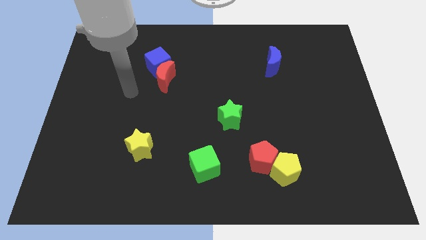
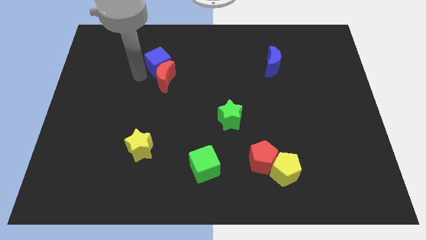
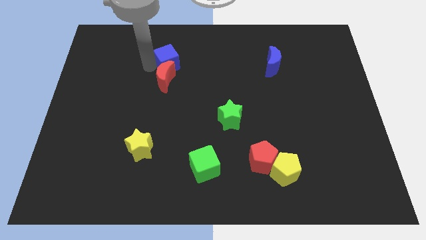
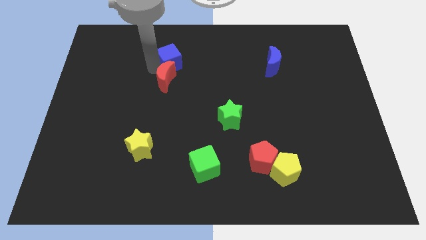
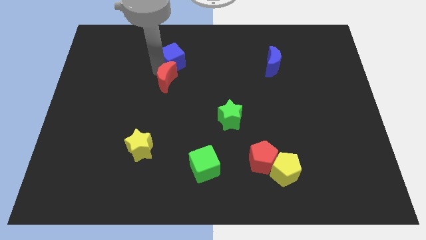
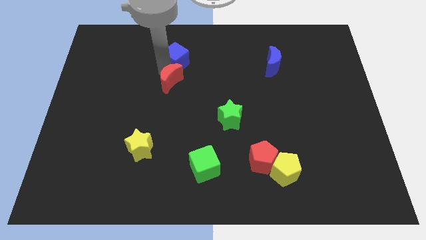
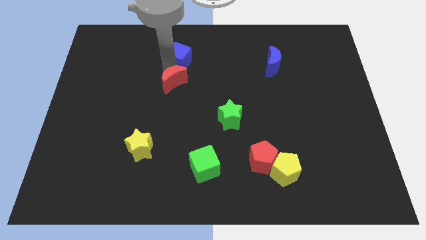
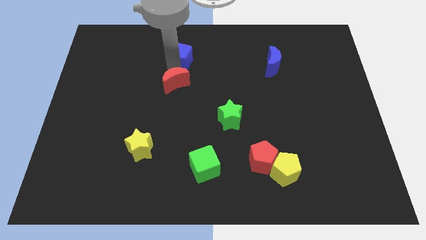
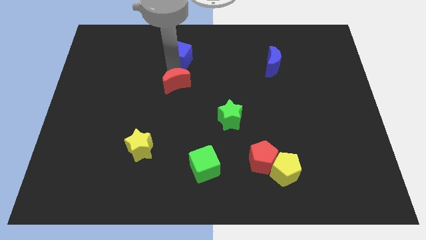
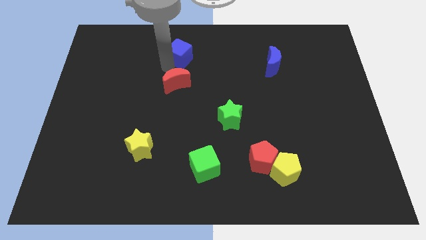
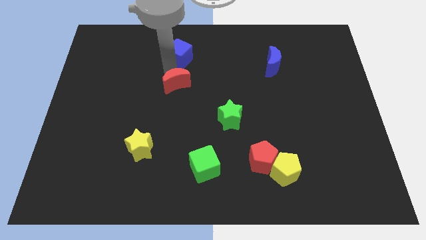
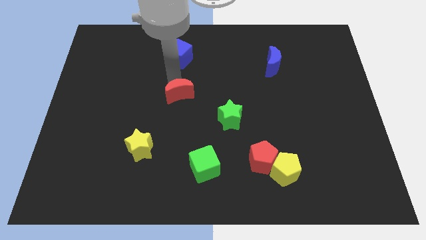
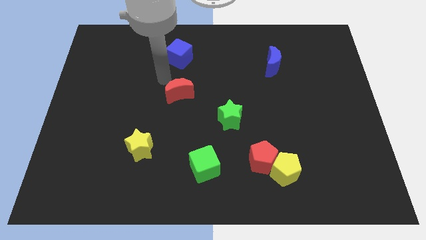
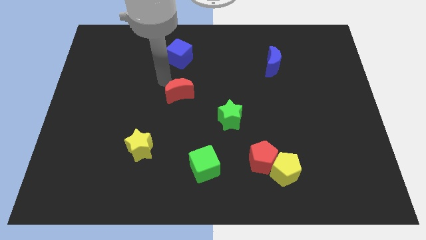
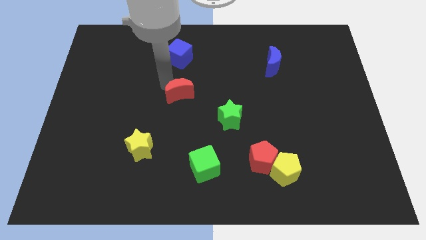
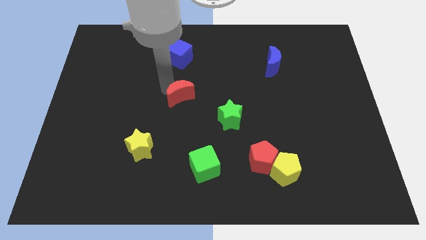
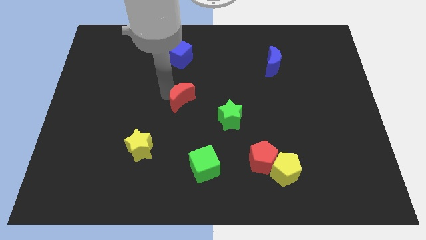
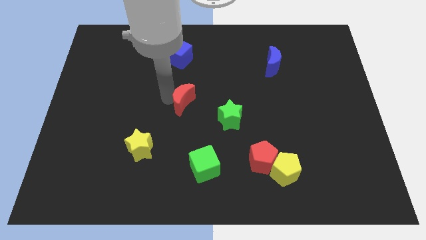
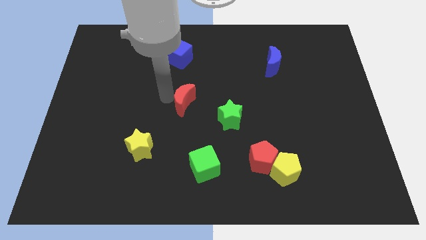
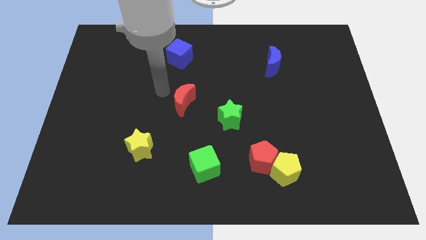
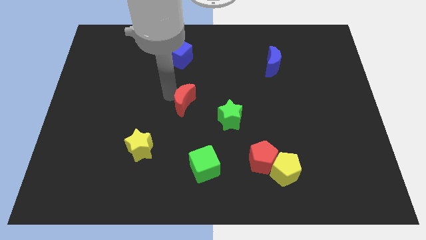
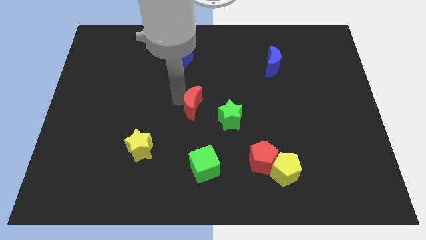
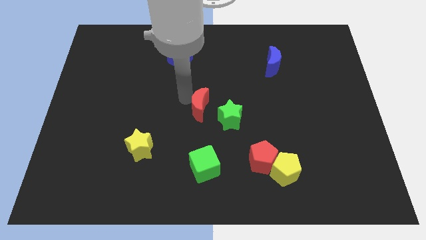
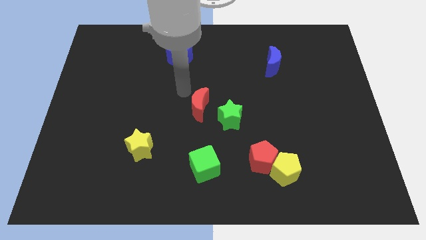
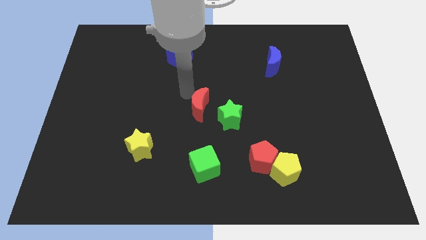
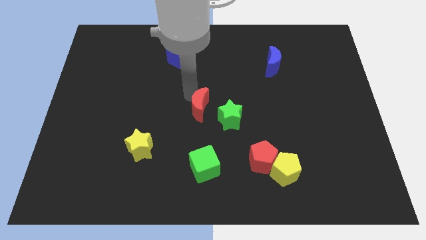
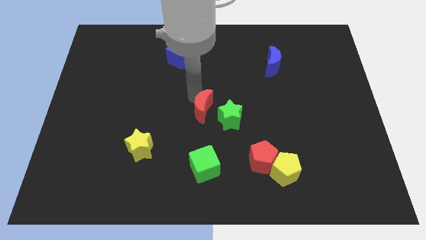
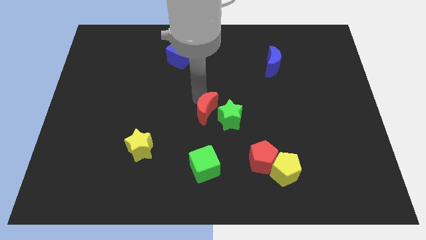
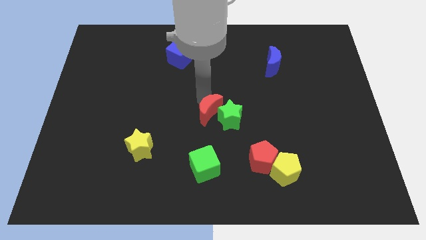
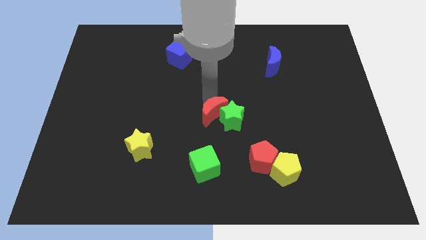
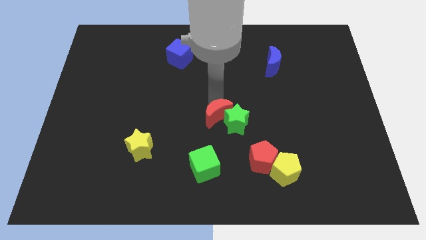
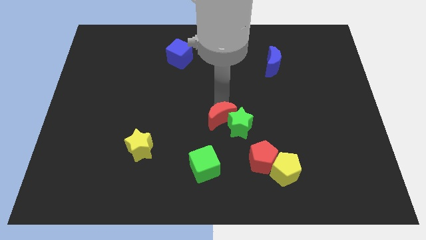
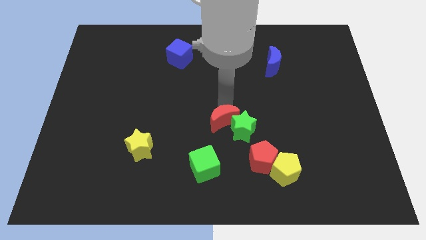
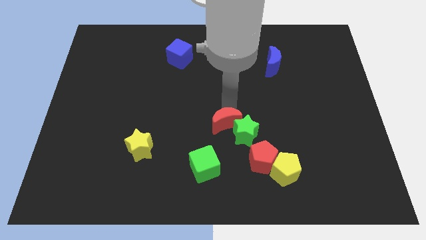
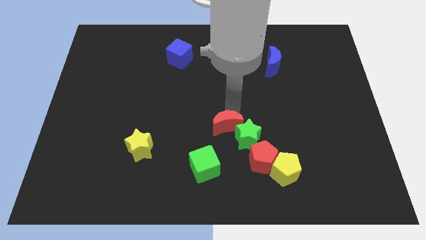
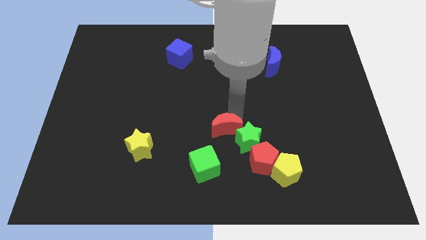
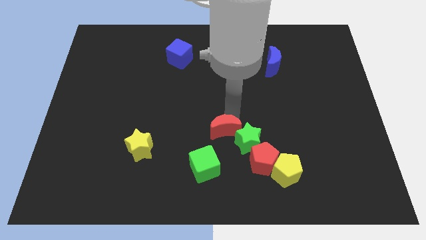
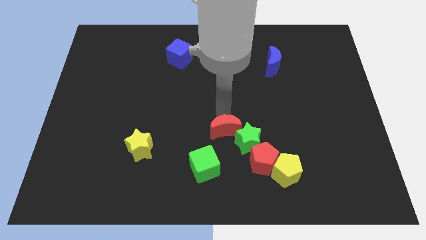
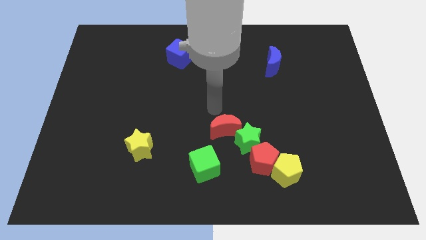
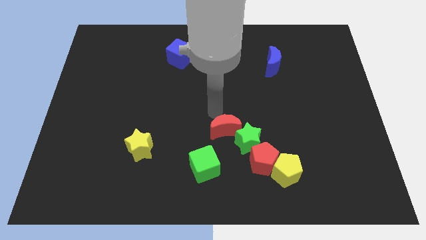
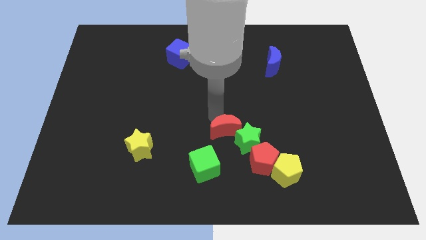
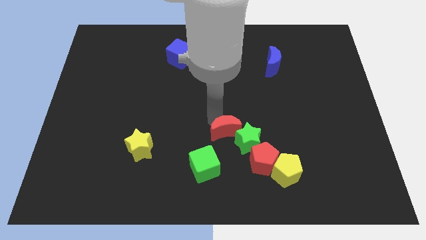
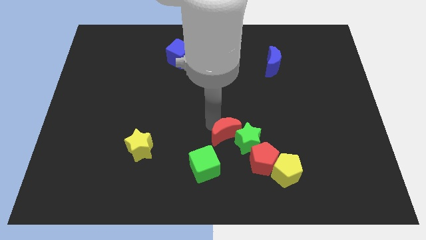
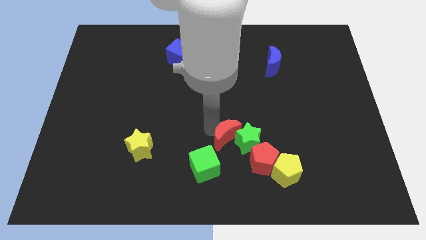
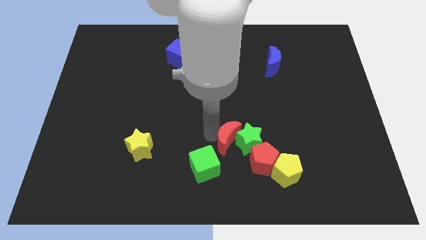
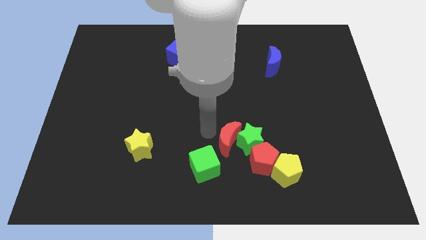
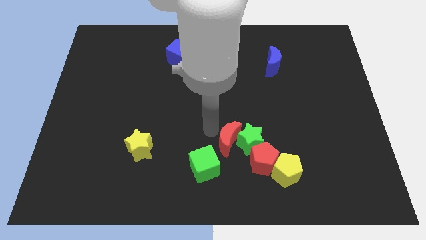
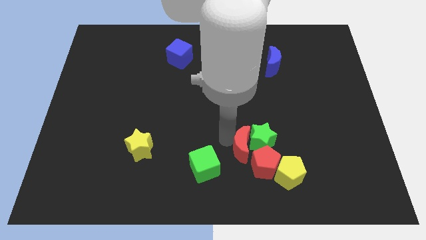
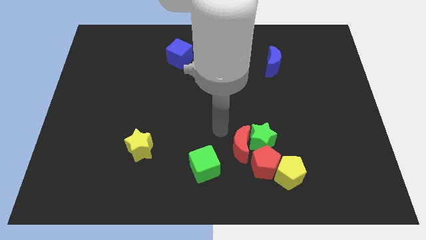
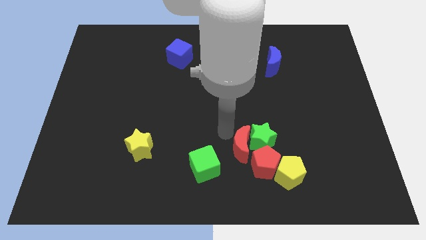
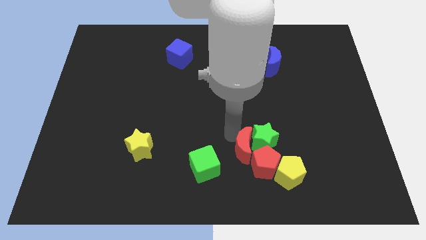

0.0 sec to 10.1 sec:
put the red moon towards the red pentagon

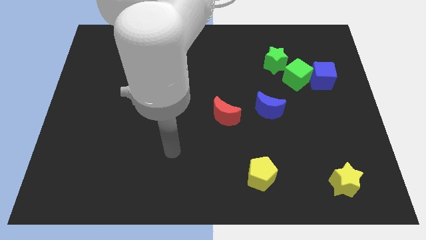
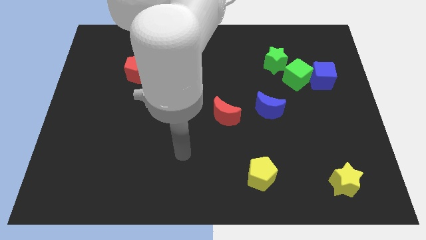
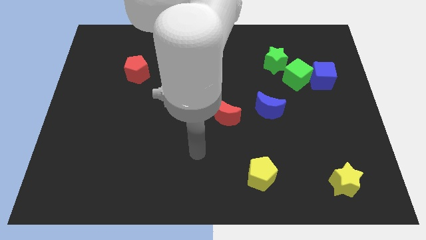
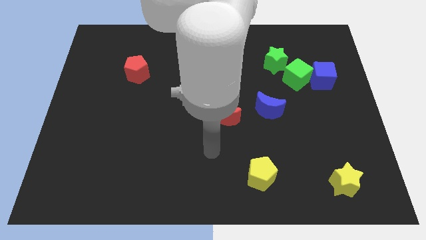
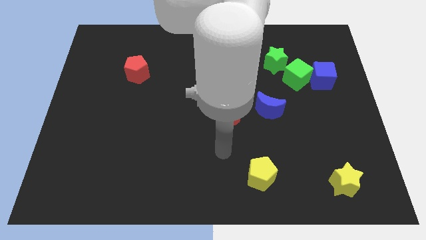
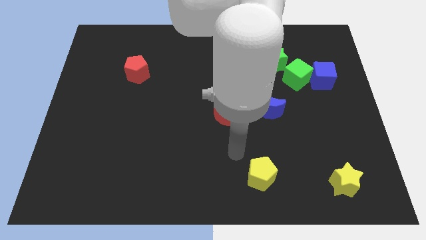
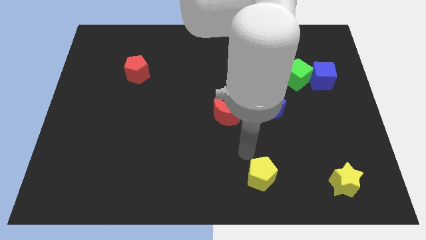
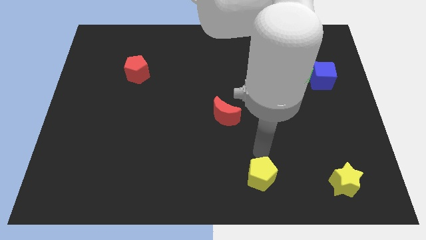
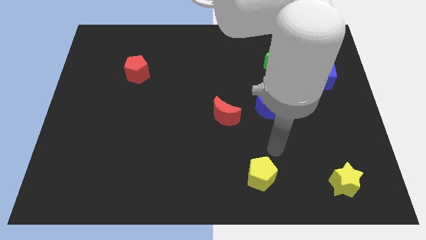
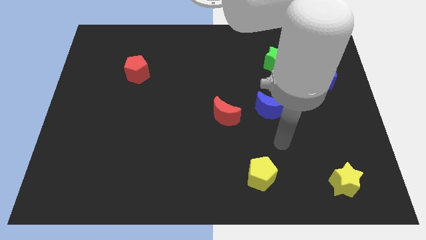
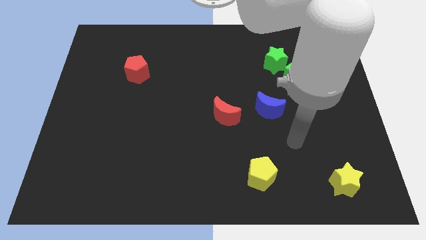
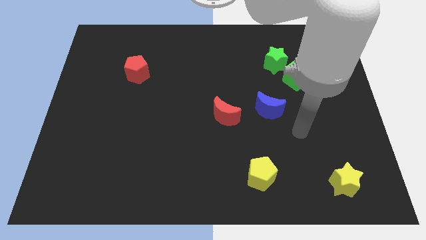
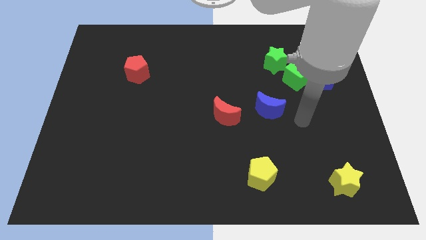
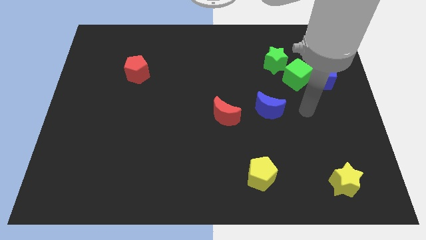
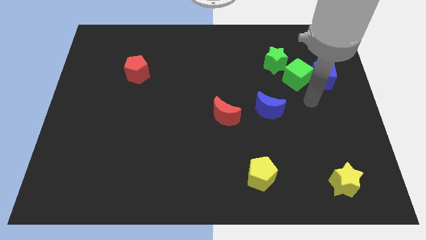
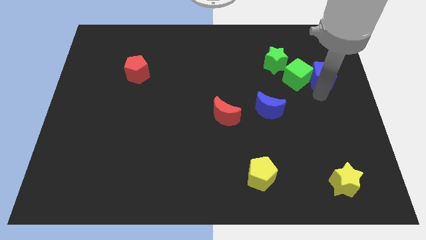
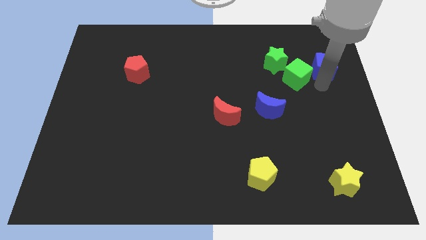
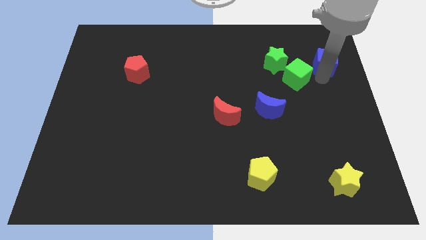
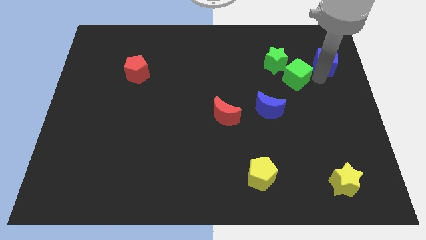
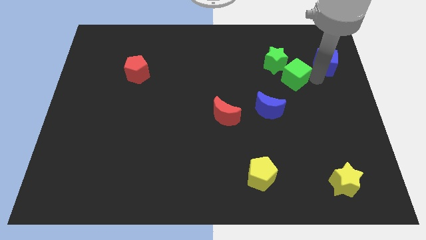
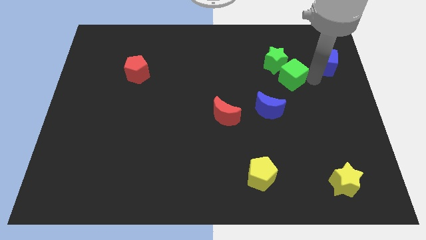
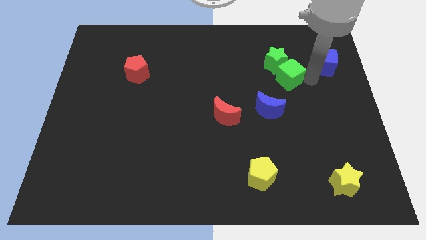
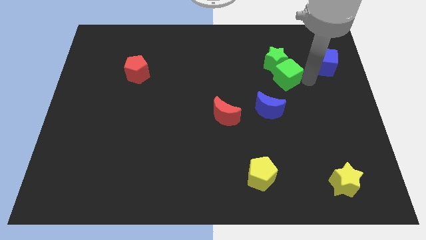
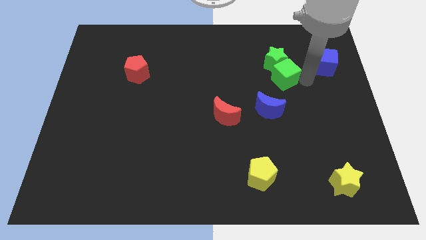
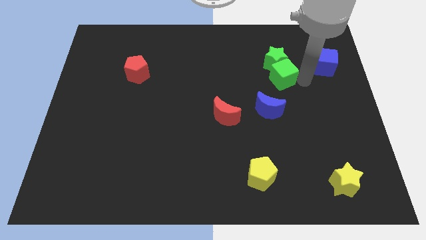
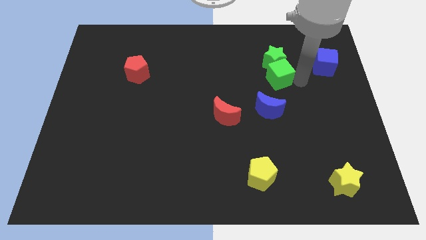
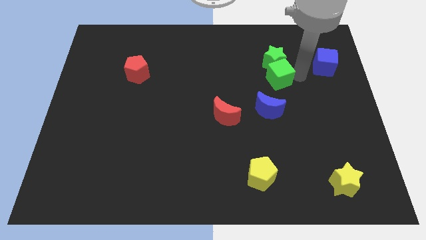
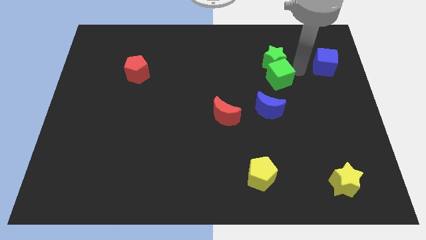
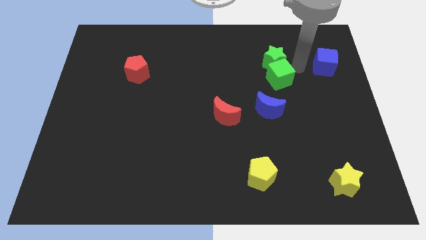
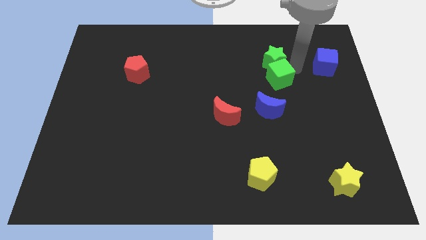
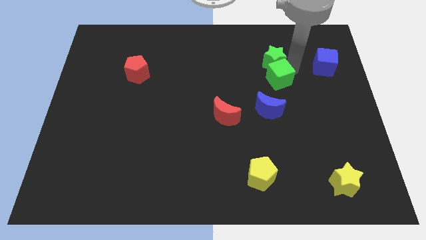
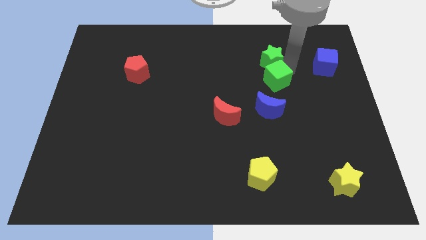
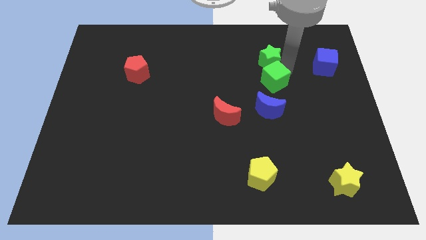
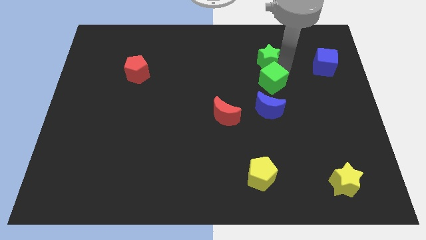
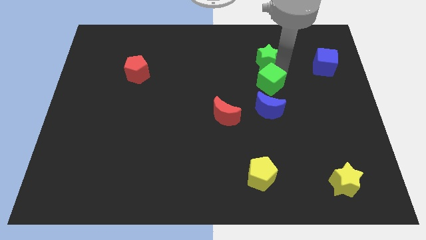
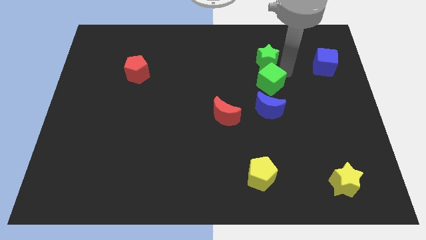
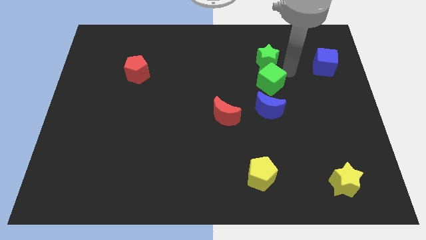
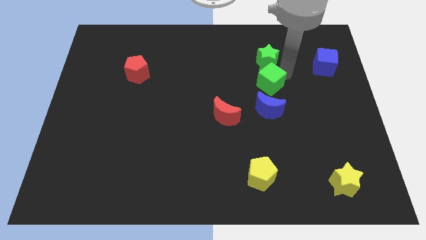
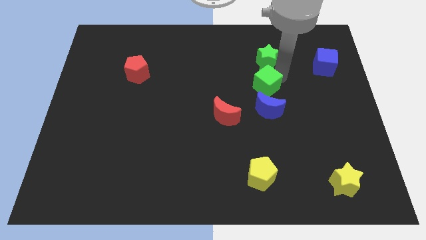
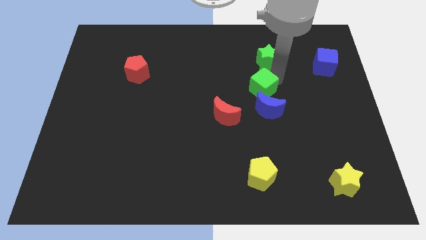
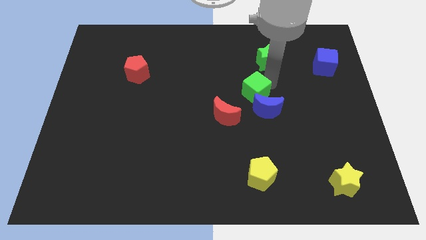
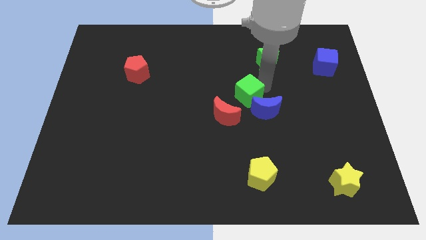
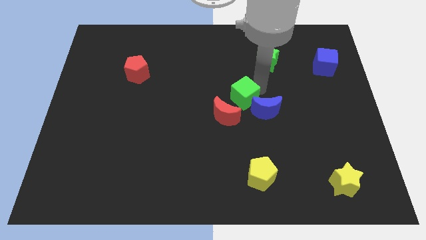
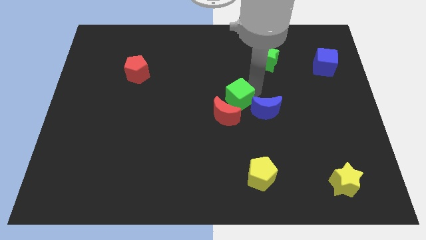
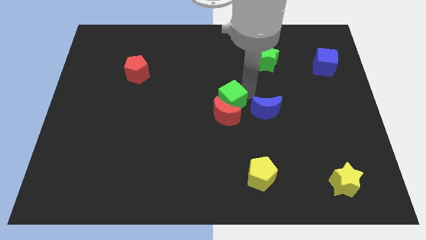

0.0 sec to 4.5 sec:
put the green cube towards the red moon
